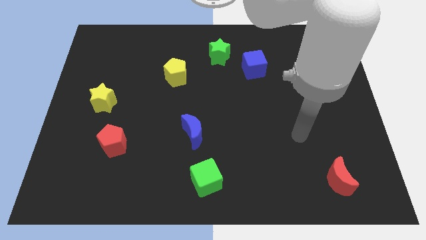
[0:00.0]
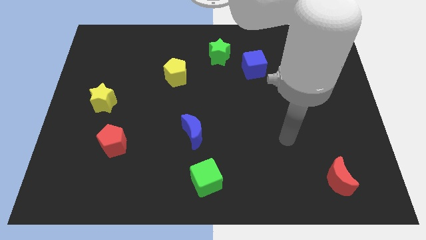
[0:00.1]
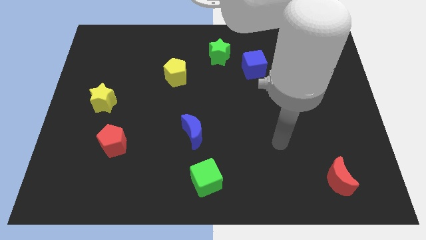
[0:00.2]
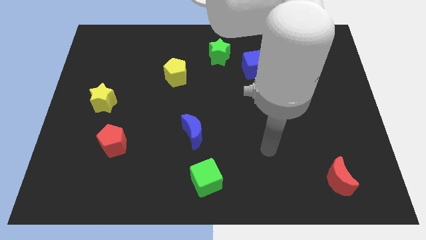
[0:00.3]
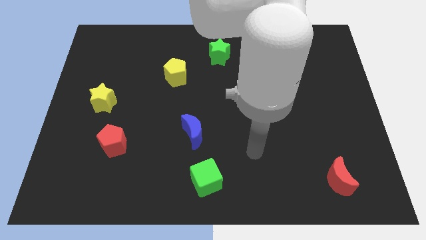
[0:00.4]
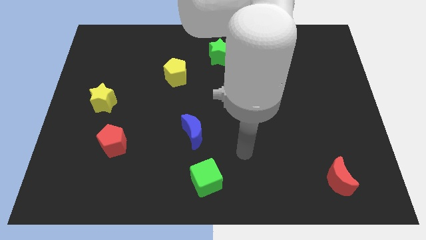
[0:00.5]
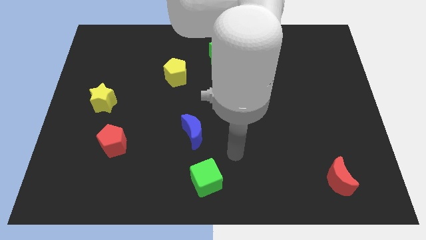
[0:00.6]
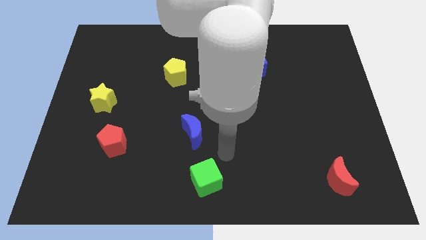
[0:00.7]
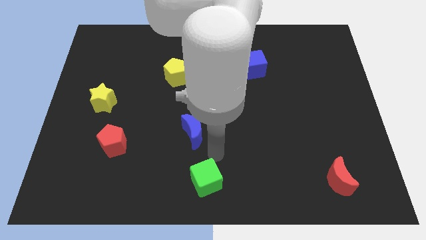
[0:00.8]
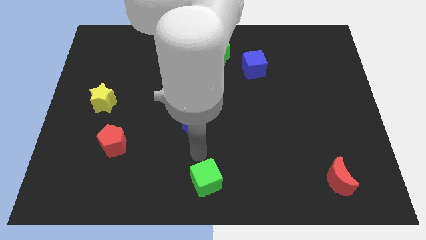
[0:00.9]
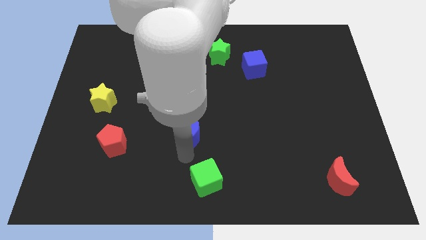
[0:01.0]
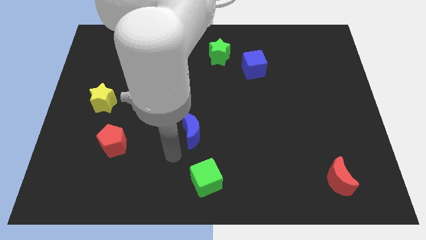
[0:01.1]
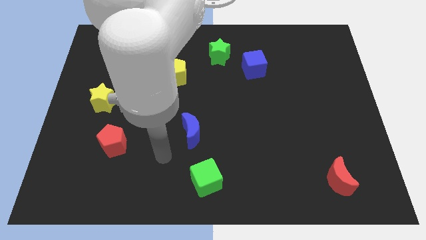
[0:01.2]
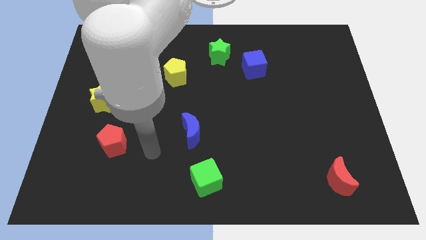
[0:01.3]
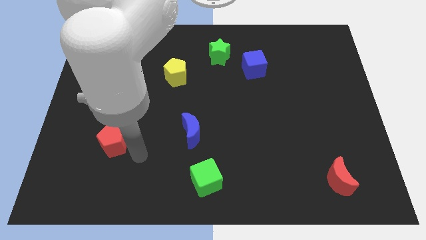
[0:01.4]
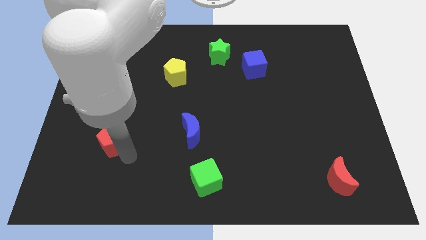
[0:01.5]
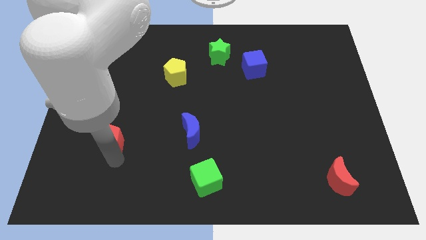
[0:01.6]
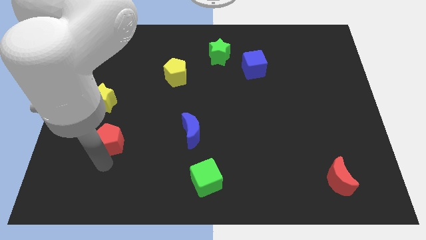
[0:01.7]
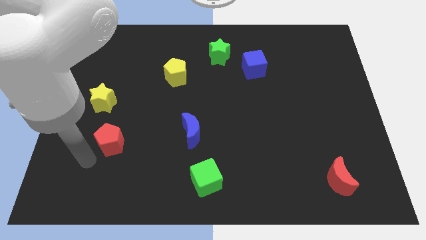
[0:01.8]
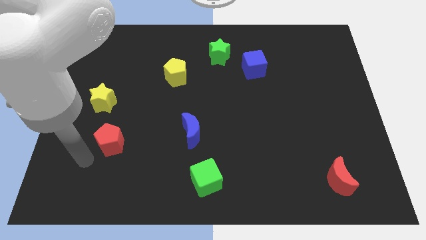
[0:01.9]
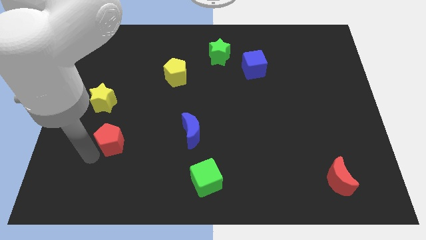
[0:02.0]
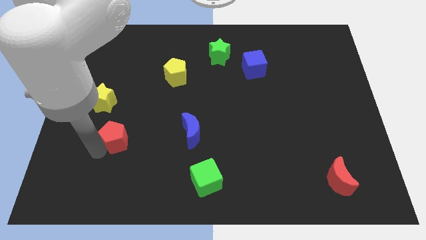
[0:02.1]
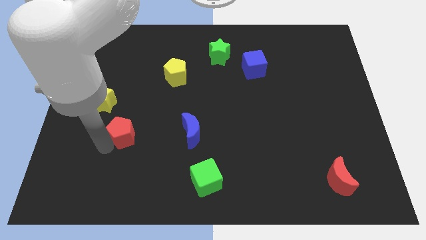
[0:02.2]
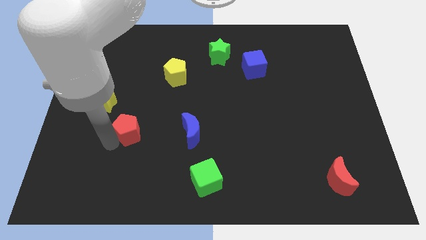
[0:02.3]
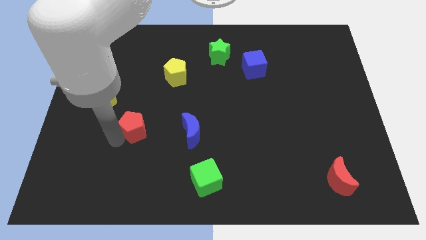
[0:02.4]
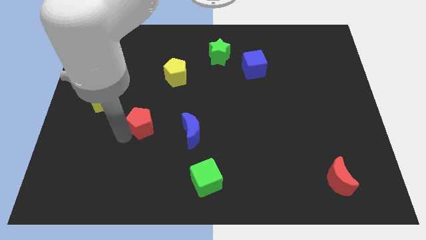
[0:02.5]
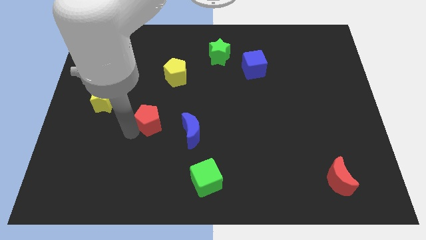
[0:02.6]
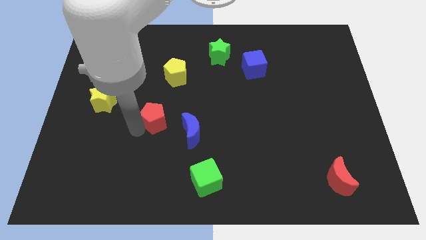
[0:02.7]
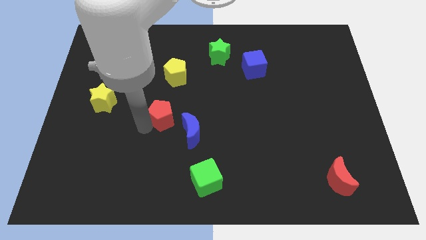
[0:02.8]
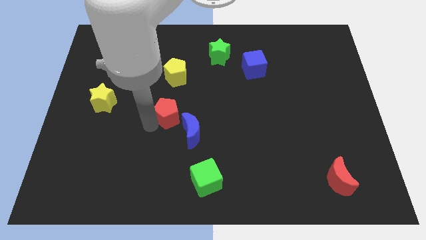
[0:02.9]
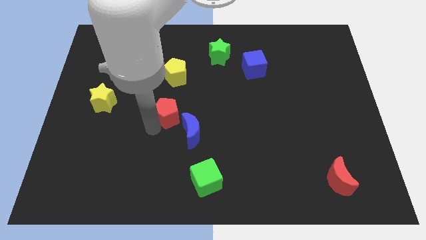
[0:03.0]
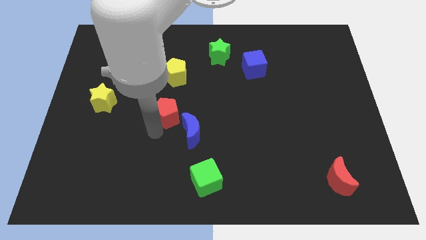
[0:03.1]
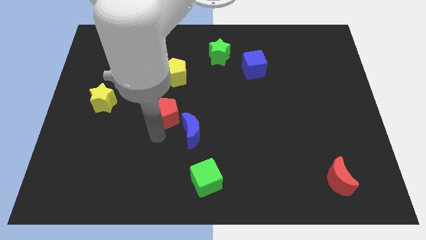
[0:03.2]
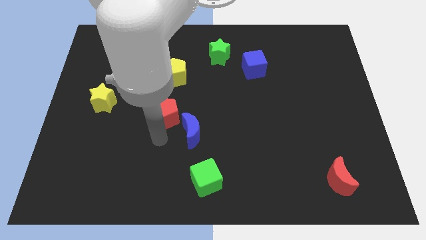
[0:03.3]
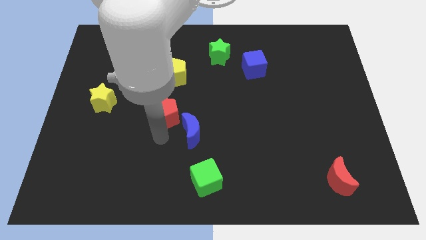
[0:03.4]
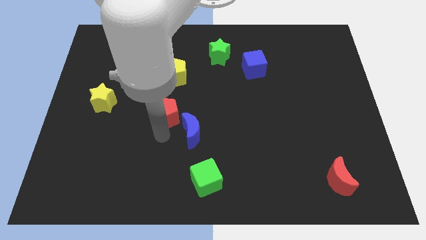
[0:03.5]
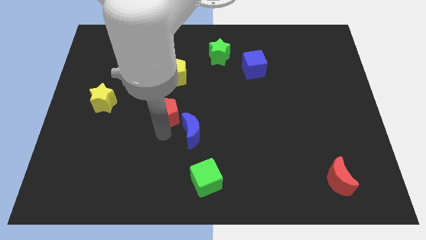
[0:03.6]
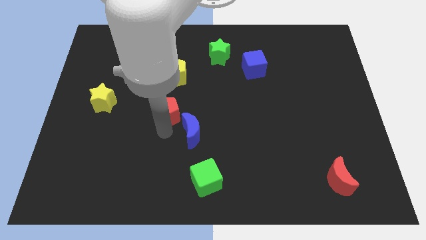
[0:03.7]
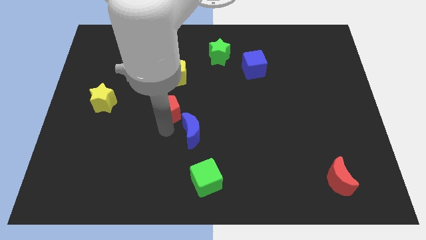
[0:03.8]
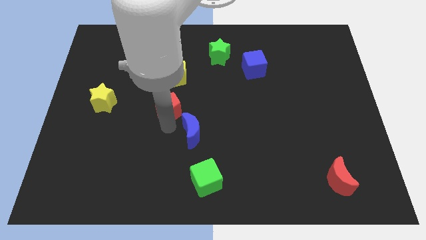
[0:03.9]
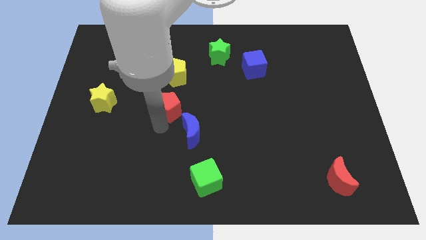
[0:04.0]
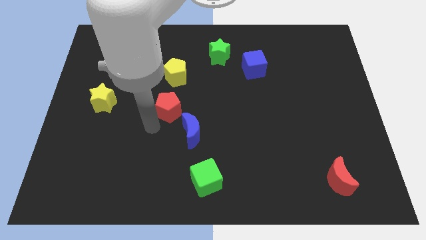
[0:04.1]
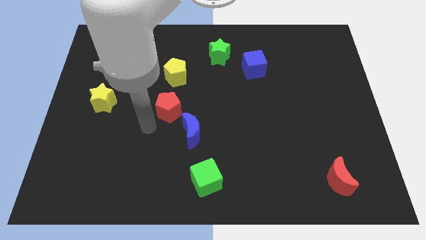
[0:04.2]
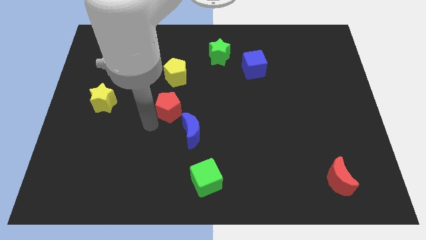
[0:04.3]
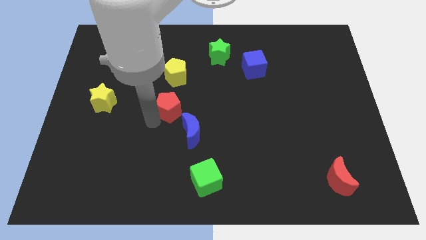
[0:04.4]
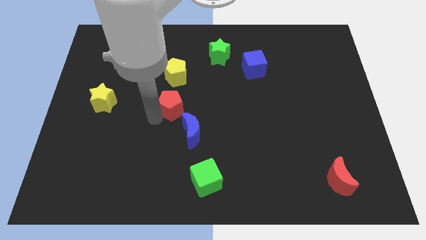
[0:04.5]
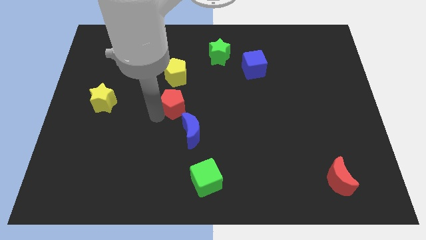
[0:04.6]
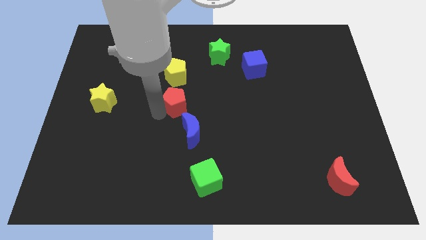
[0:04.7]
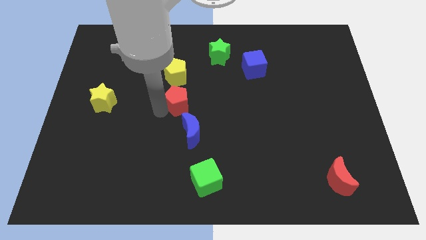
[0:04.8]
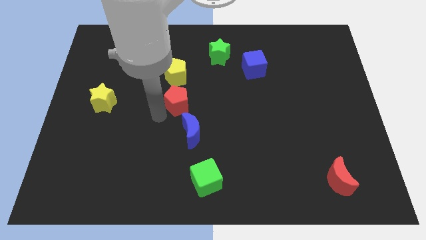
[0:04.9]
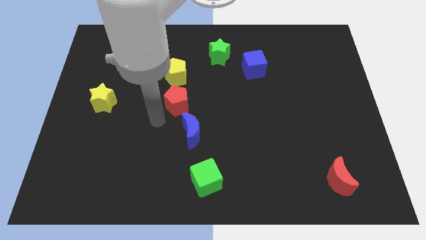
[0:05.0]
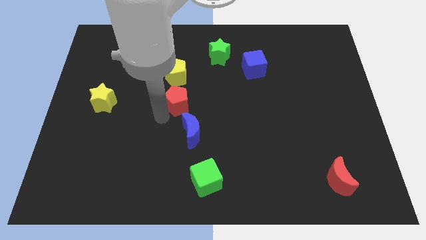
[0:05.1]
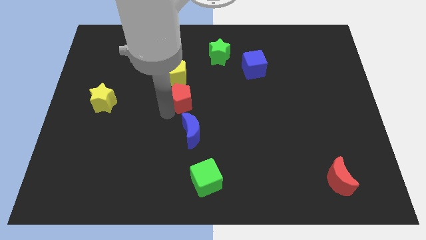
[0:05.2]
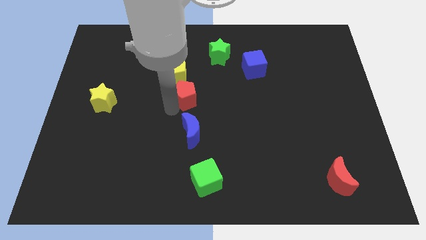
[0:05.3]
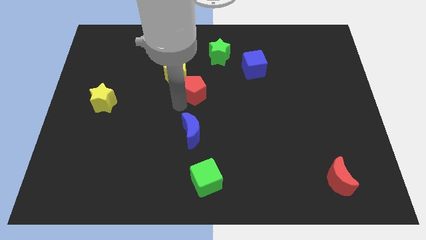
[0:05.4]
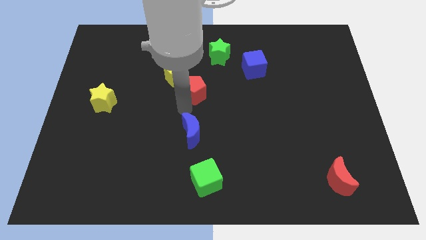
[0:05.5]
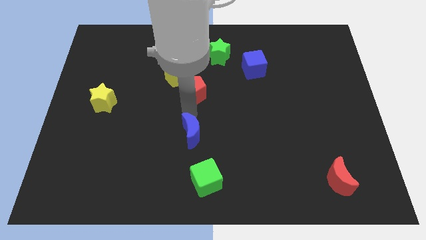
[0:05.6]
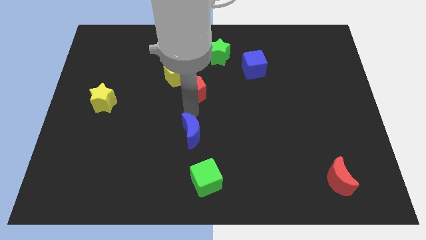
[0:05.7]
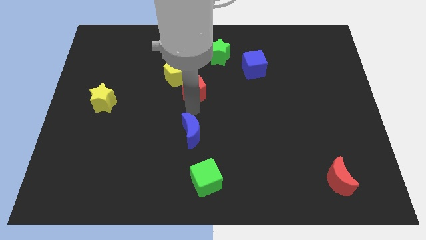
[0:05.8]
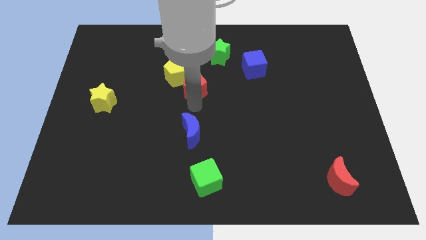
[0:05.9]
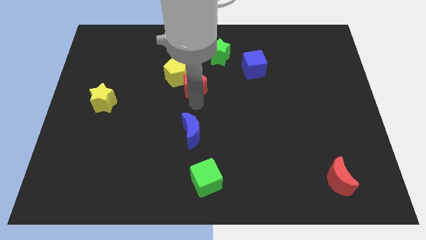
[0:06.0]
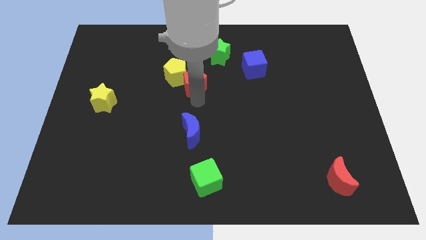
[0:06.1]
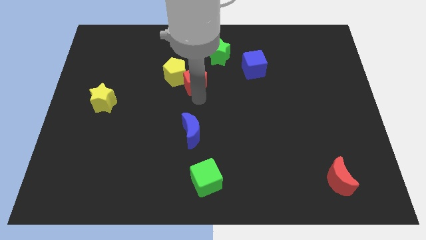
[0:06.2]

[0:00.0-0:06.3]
push the red pentagon to the bottom left of the green star
